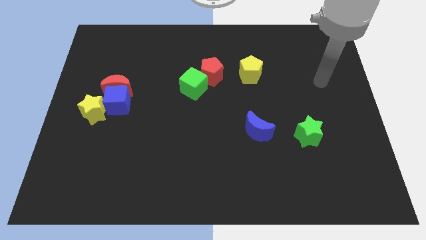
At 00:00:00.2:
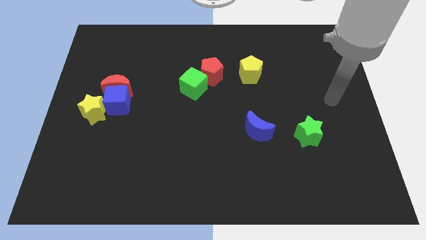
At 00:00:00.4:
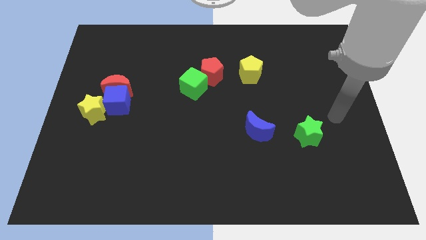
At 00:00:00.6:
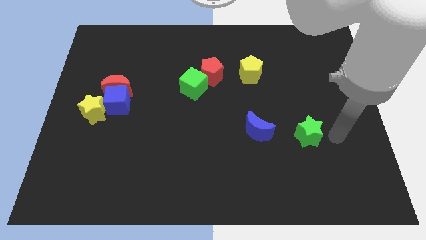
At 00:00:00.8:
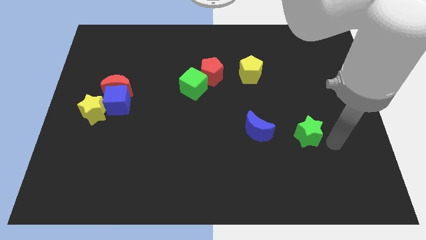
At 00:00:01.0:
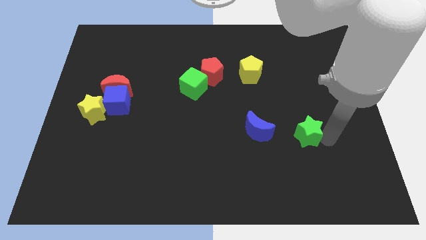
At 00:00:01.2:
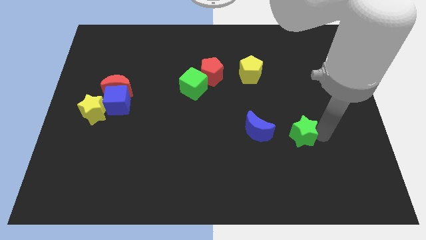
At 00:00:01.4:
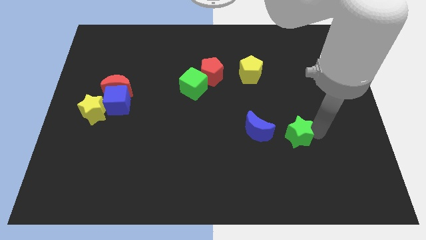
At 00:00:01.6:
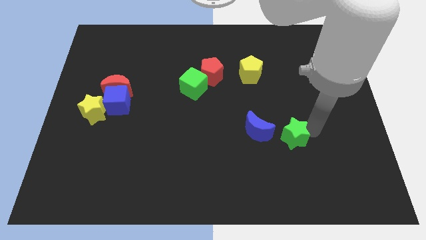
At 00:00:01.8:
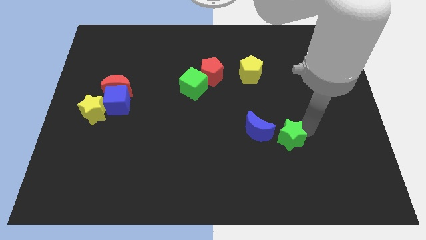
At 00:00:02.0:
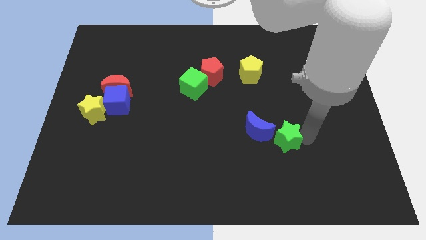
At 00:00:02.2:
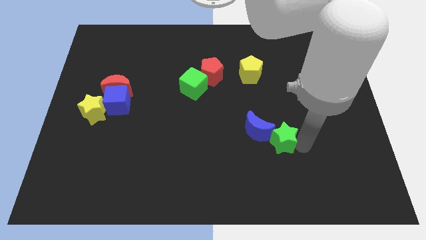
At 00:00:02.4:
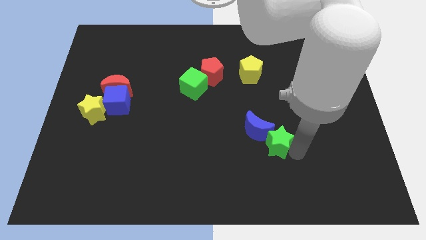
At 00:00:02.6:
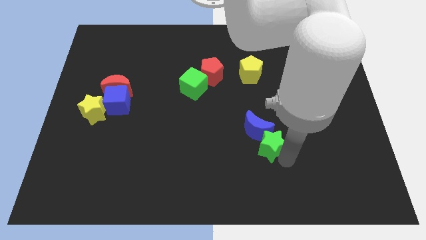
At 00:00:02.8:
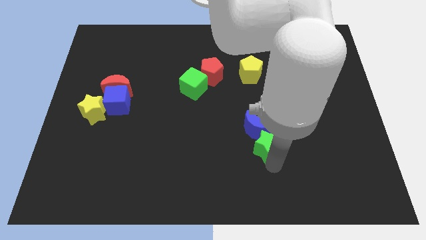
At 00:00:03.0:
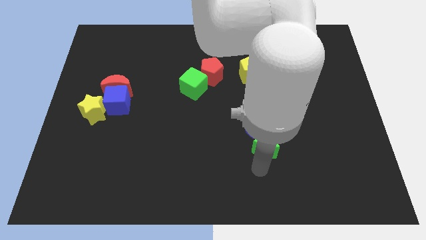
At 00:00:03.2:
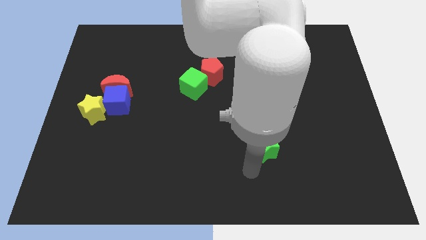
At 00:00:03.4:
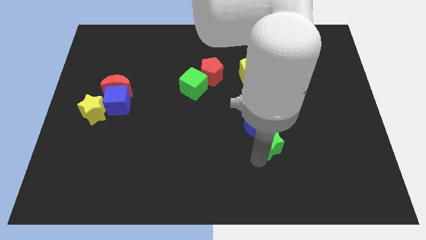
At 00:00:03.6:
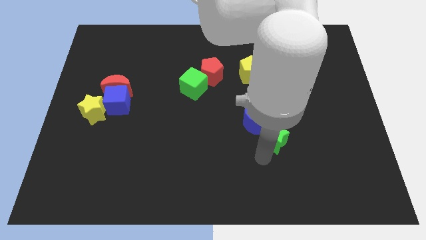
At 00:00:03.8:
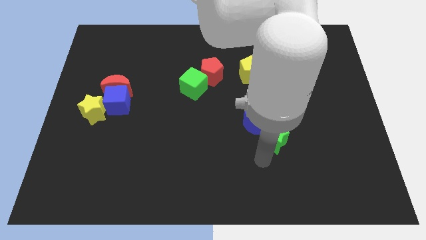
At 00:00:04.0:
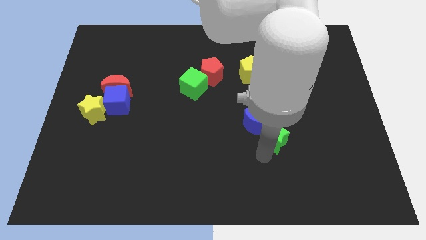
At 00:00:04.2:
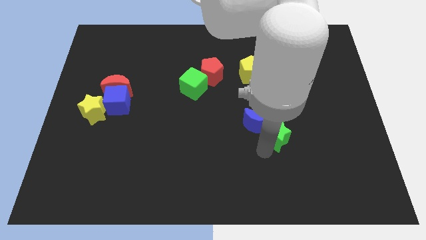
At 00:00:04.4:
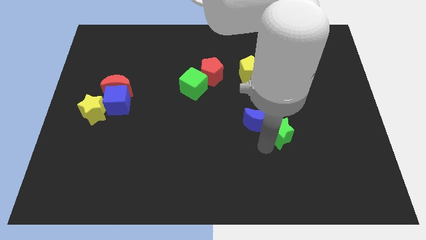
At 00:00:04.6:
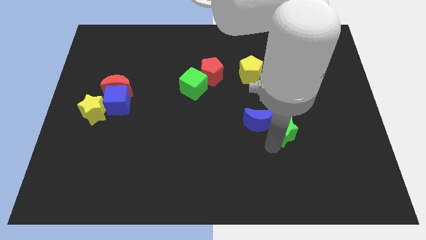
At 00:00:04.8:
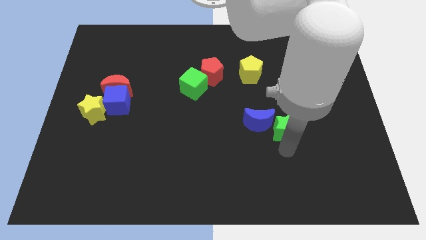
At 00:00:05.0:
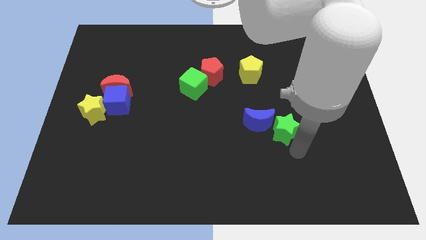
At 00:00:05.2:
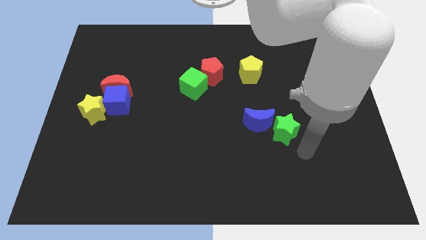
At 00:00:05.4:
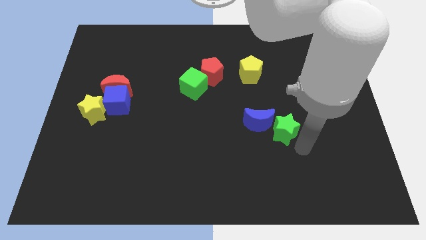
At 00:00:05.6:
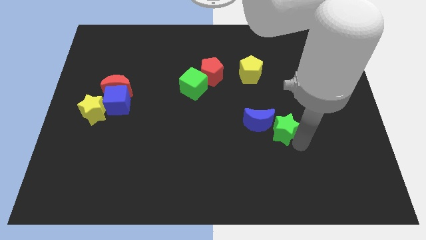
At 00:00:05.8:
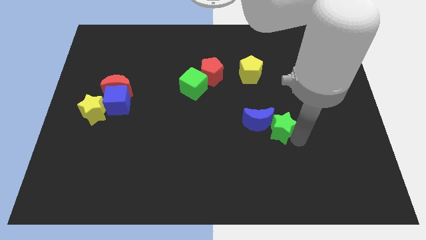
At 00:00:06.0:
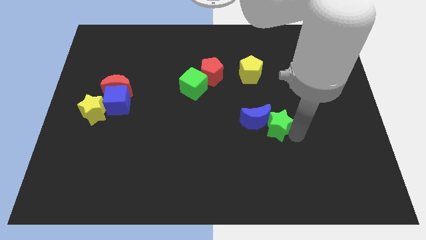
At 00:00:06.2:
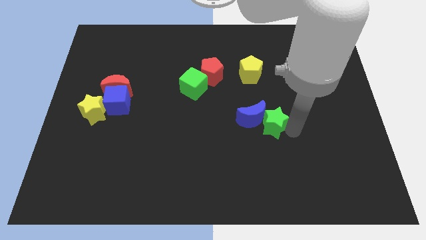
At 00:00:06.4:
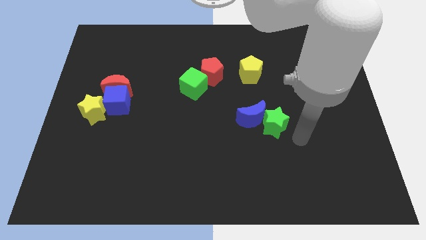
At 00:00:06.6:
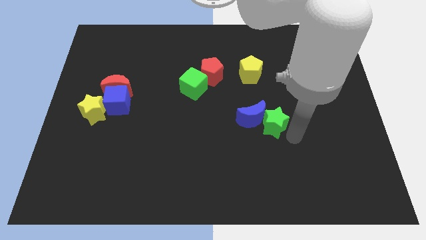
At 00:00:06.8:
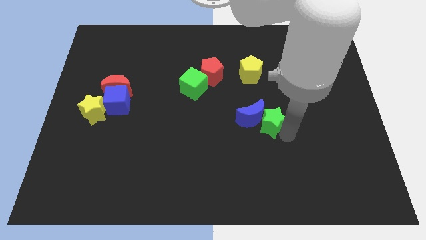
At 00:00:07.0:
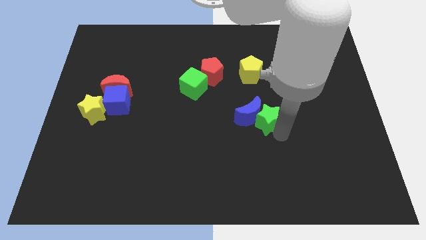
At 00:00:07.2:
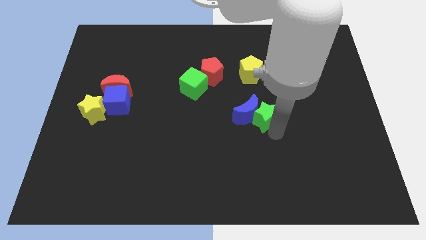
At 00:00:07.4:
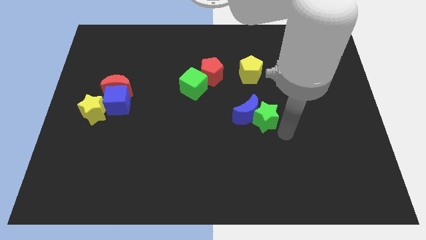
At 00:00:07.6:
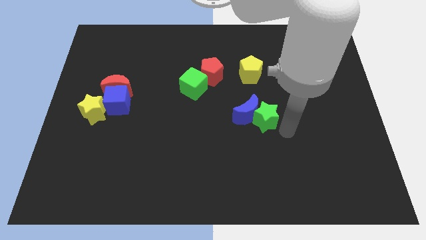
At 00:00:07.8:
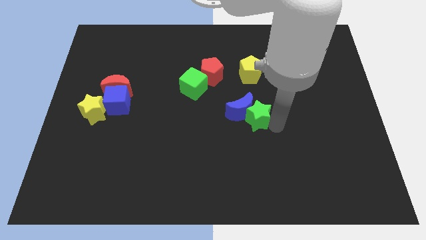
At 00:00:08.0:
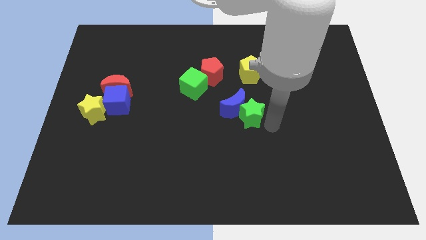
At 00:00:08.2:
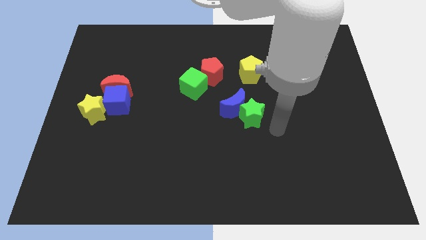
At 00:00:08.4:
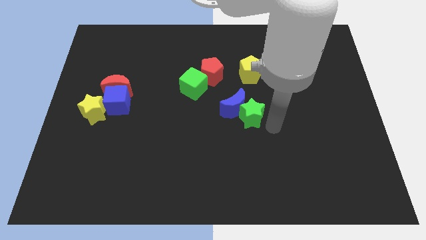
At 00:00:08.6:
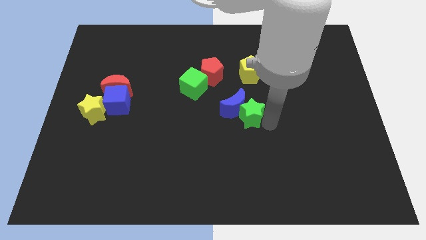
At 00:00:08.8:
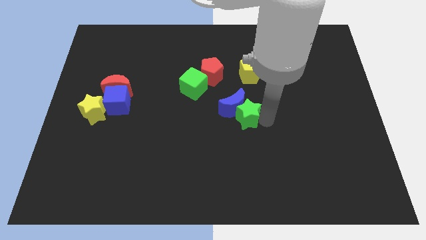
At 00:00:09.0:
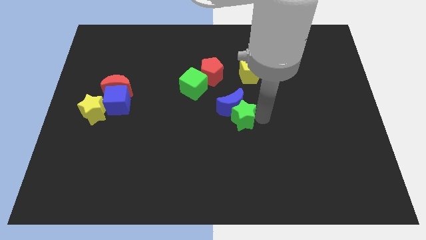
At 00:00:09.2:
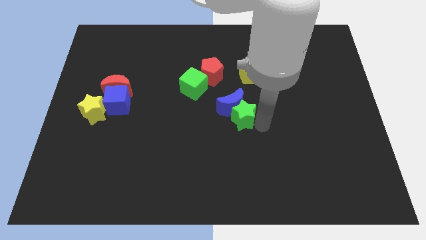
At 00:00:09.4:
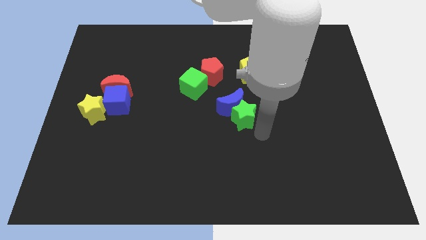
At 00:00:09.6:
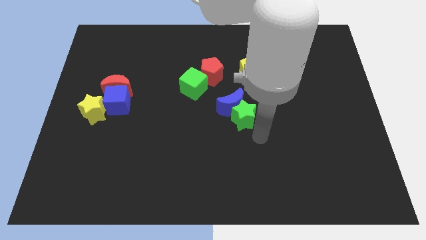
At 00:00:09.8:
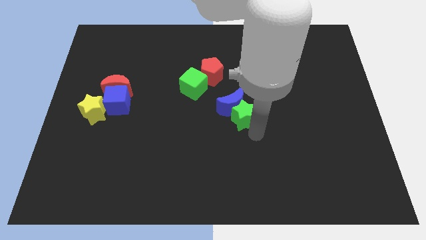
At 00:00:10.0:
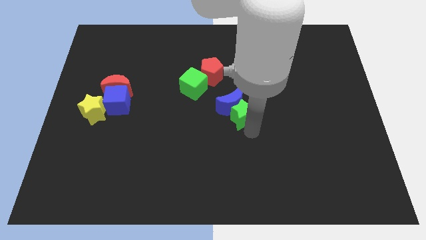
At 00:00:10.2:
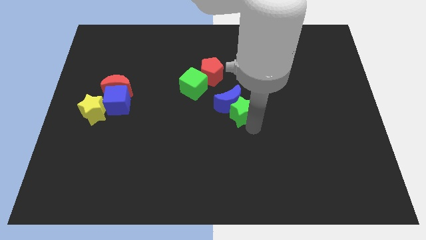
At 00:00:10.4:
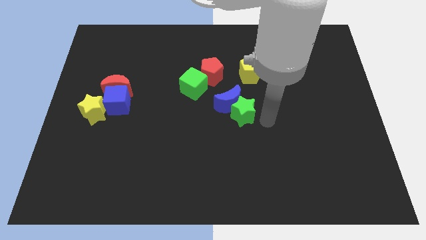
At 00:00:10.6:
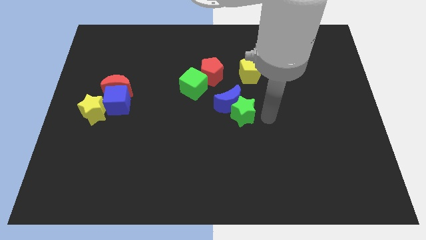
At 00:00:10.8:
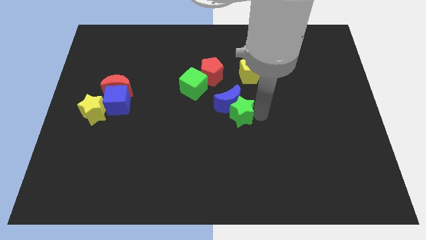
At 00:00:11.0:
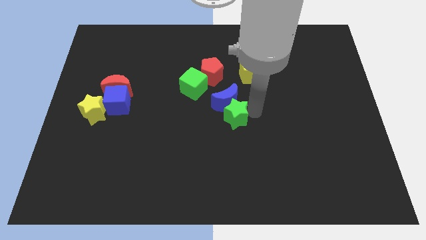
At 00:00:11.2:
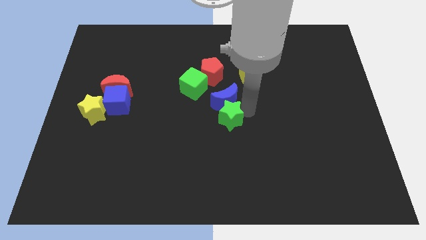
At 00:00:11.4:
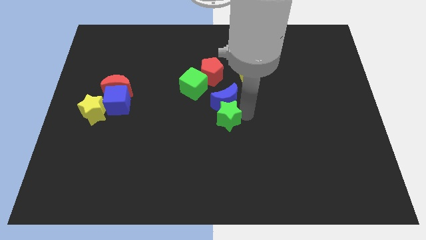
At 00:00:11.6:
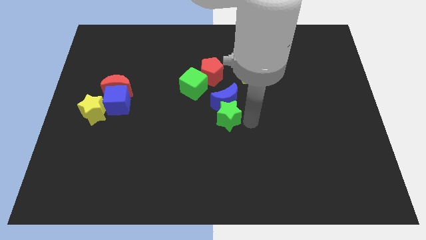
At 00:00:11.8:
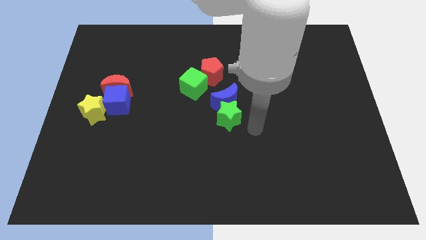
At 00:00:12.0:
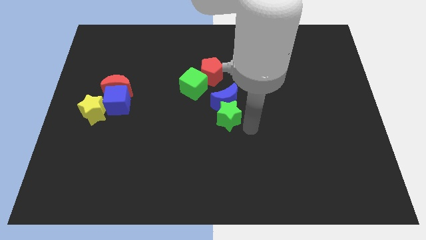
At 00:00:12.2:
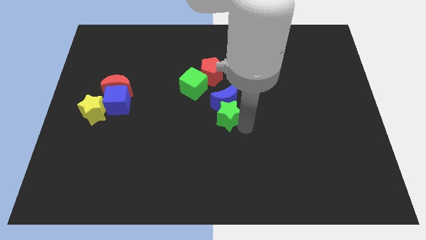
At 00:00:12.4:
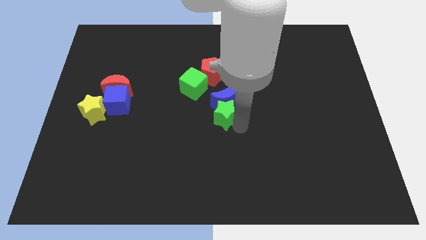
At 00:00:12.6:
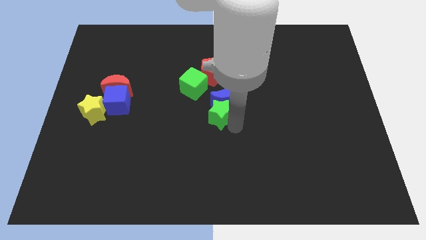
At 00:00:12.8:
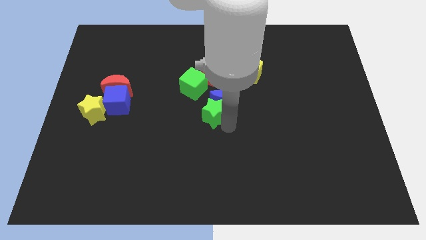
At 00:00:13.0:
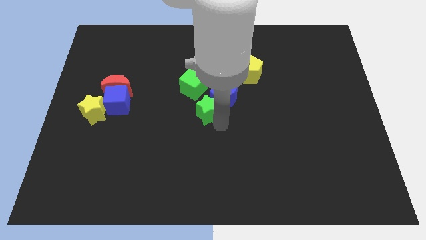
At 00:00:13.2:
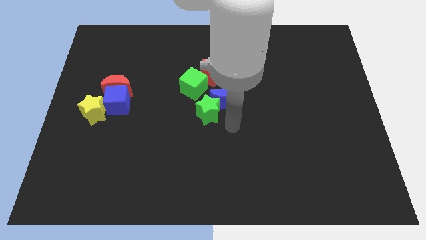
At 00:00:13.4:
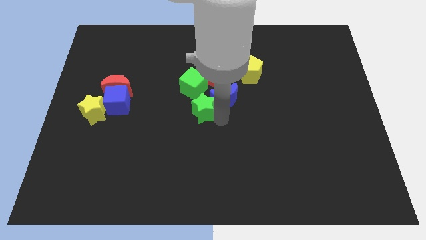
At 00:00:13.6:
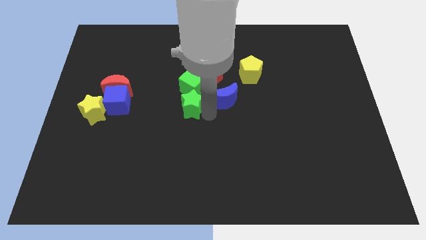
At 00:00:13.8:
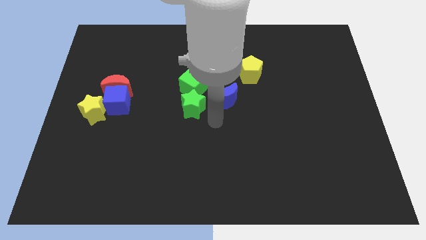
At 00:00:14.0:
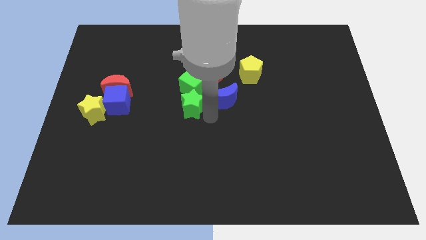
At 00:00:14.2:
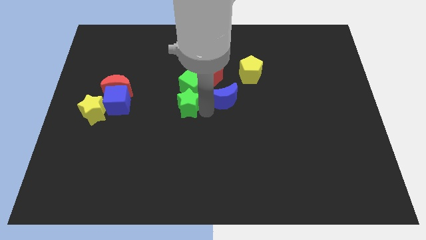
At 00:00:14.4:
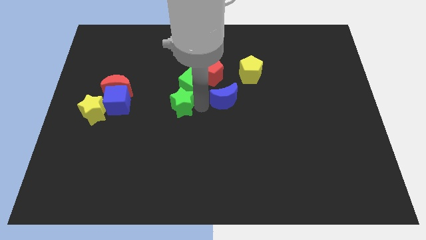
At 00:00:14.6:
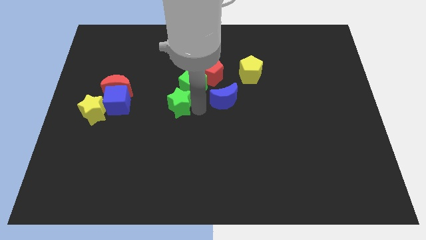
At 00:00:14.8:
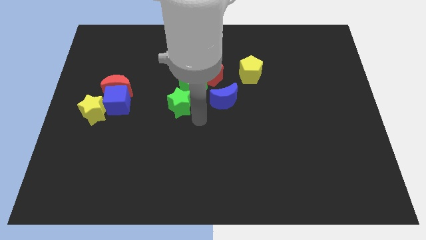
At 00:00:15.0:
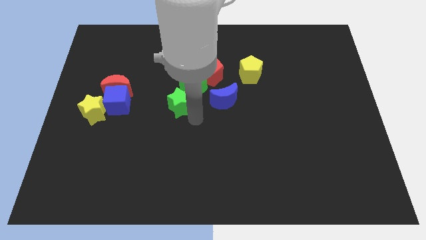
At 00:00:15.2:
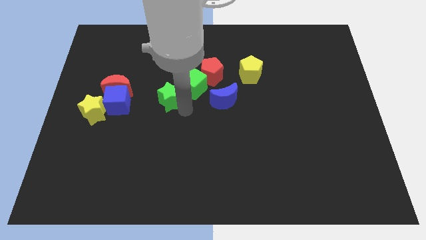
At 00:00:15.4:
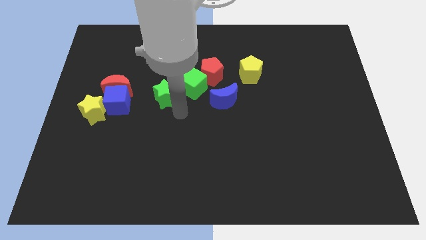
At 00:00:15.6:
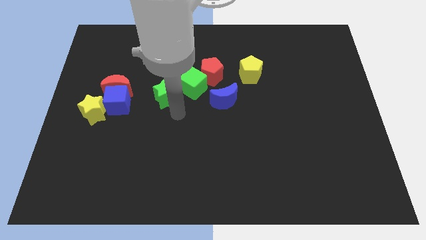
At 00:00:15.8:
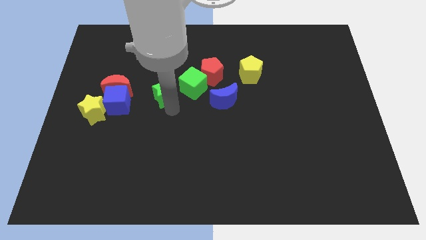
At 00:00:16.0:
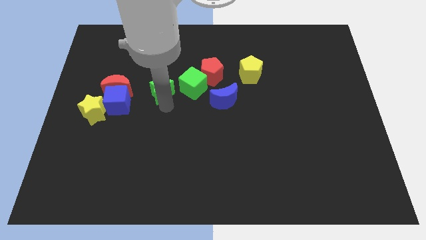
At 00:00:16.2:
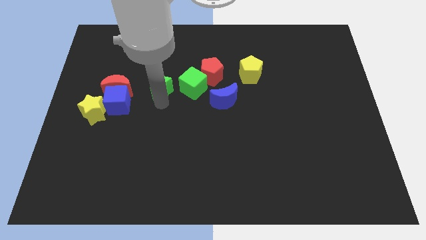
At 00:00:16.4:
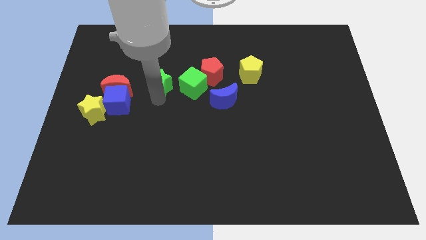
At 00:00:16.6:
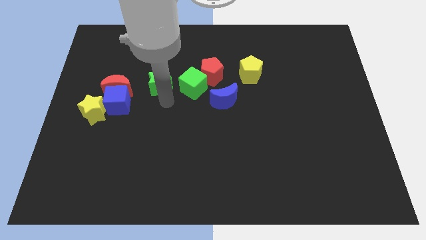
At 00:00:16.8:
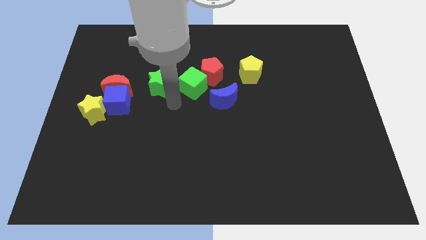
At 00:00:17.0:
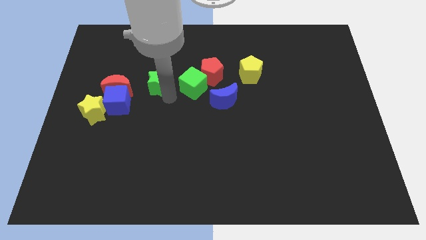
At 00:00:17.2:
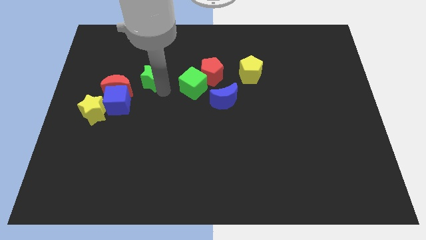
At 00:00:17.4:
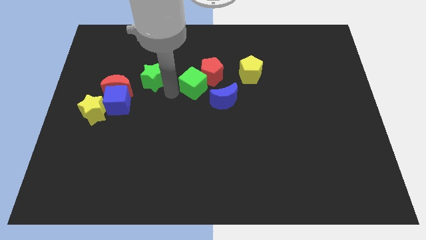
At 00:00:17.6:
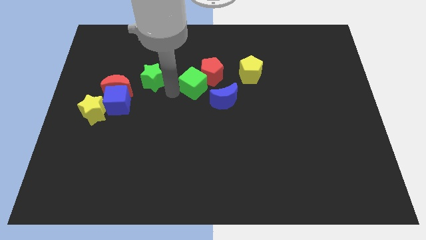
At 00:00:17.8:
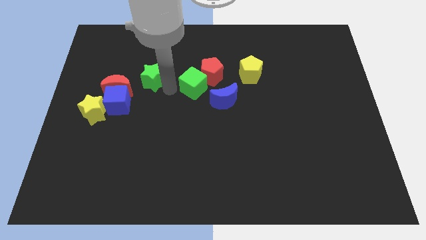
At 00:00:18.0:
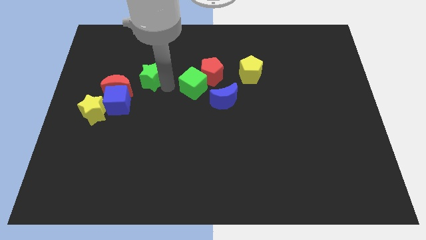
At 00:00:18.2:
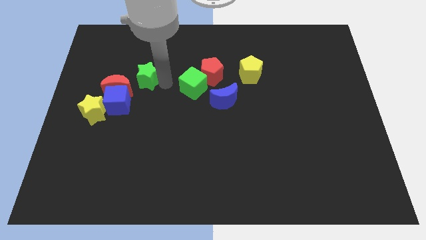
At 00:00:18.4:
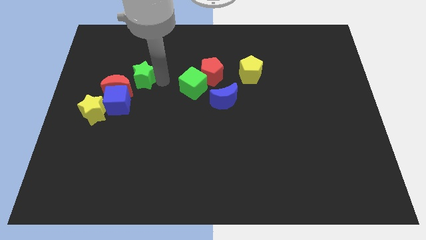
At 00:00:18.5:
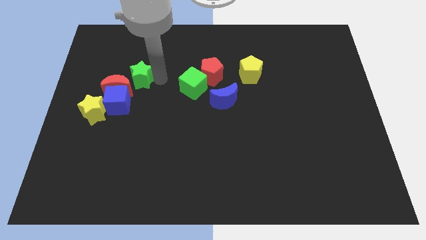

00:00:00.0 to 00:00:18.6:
put the green star above the blue cube
